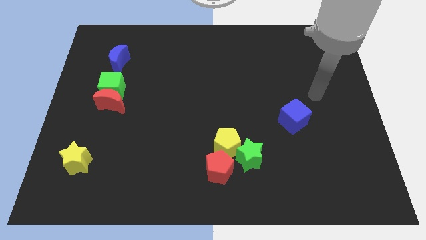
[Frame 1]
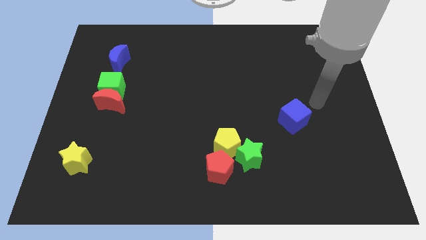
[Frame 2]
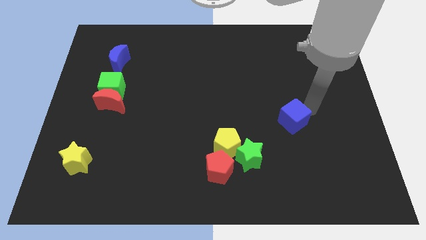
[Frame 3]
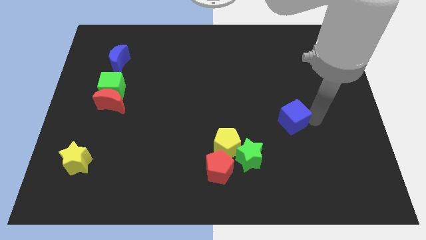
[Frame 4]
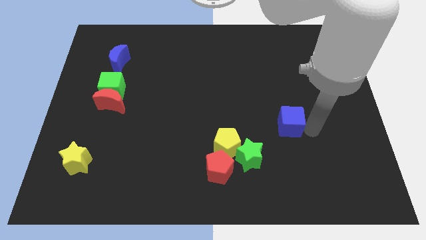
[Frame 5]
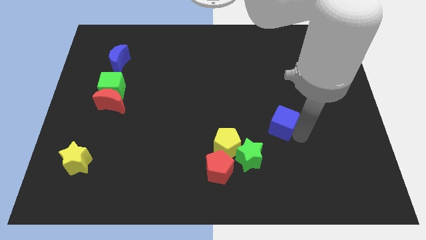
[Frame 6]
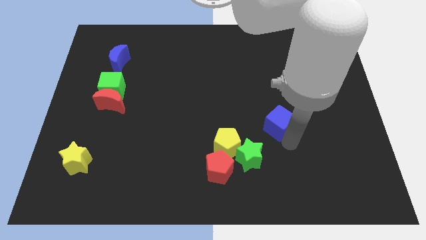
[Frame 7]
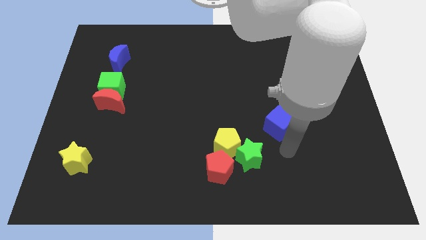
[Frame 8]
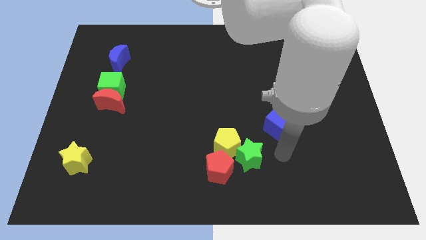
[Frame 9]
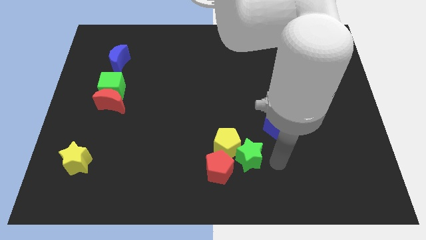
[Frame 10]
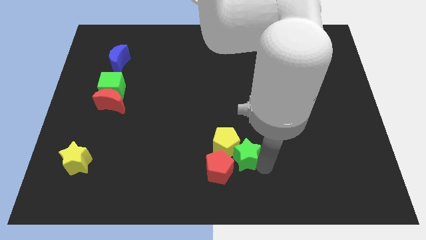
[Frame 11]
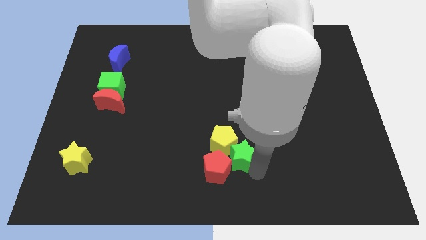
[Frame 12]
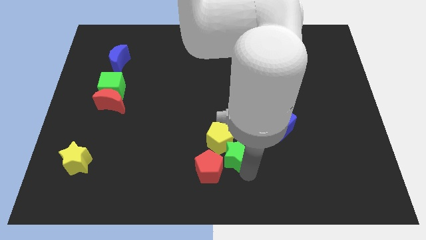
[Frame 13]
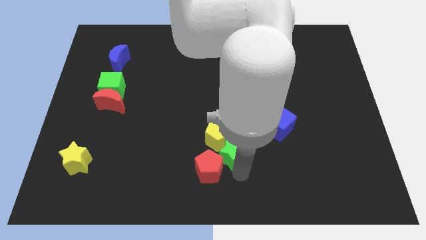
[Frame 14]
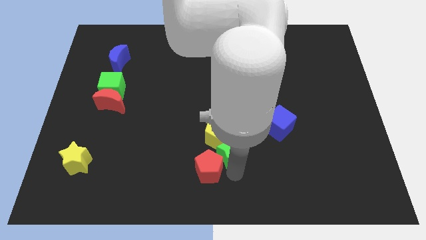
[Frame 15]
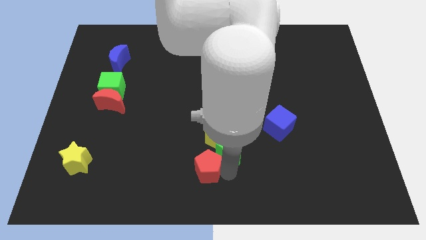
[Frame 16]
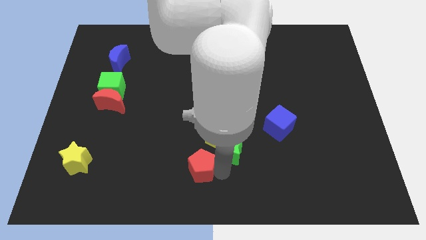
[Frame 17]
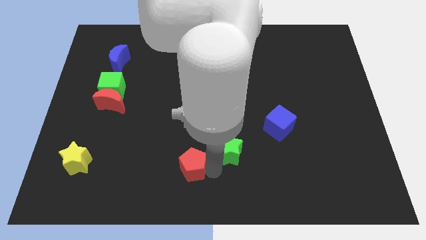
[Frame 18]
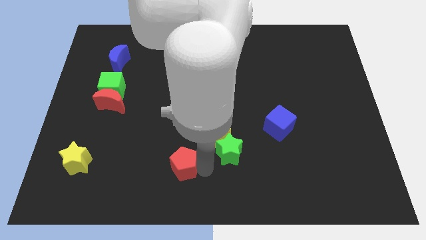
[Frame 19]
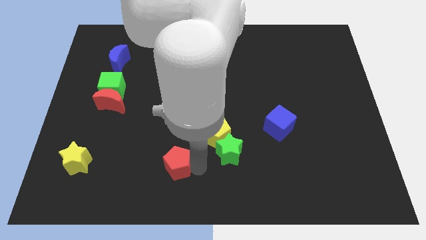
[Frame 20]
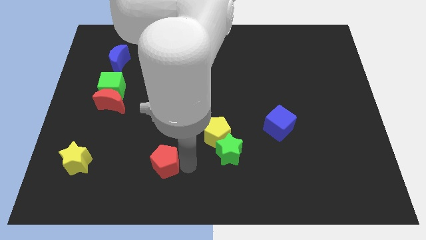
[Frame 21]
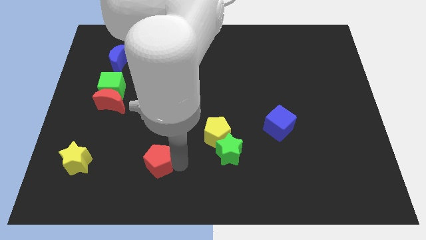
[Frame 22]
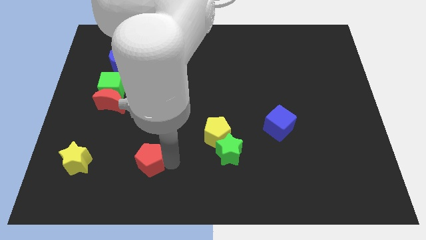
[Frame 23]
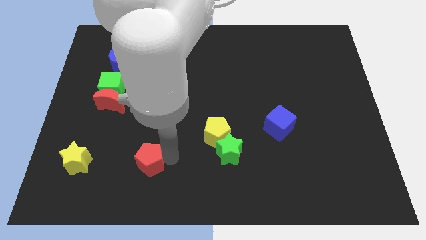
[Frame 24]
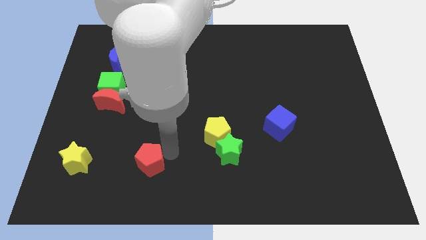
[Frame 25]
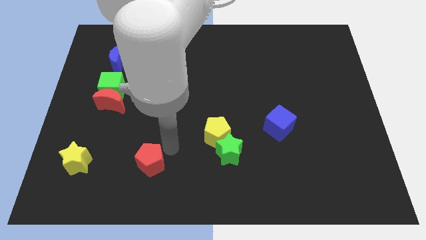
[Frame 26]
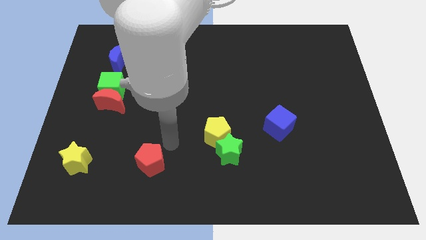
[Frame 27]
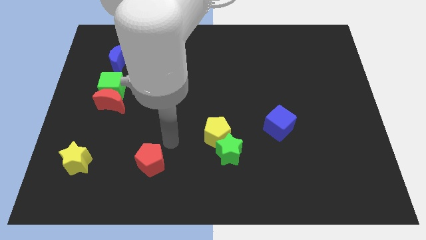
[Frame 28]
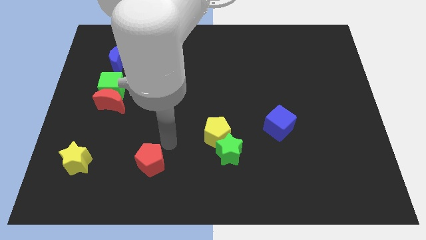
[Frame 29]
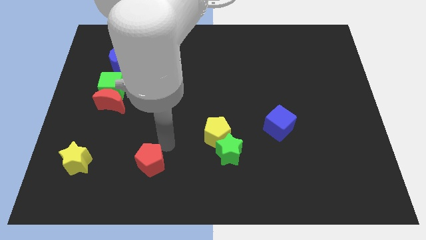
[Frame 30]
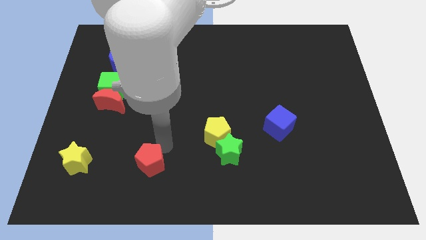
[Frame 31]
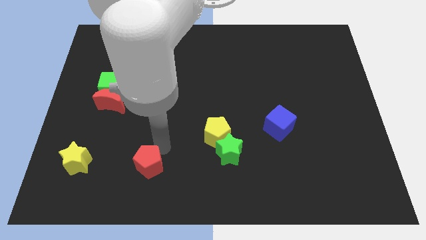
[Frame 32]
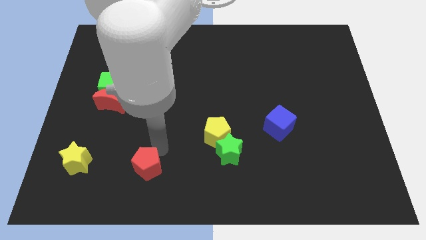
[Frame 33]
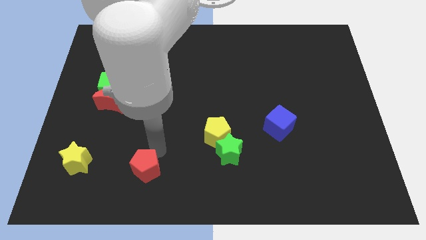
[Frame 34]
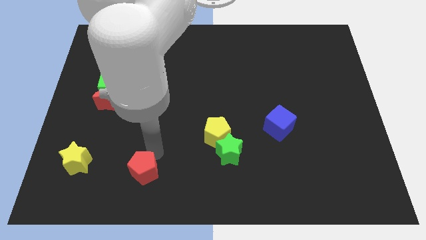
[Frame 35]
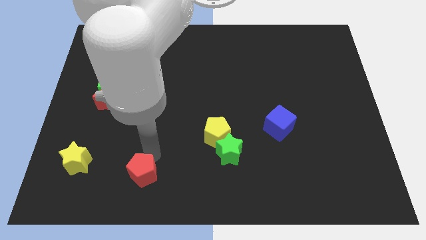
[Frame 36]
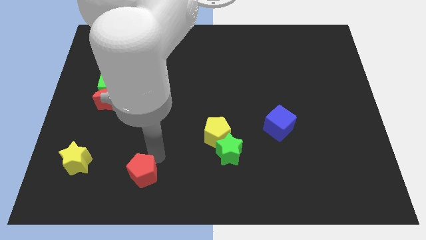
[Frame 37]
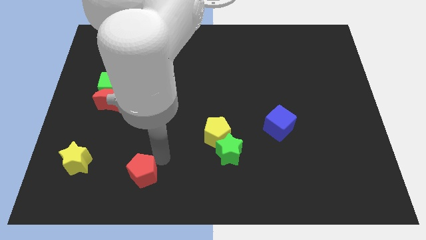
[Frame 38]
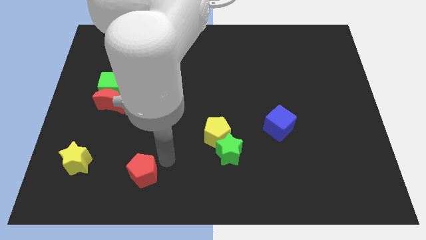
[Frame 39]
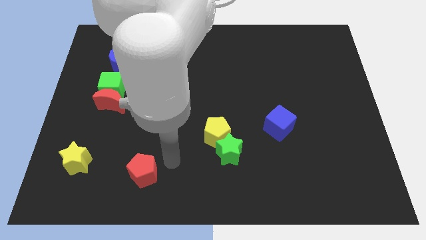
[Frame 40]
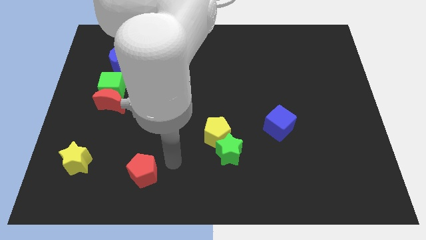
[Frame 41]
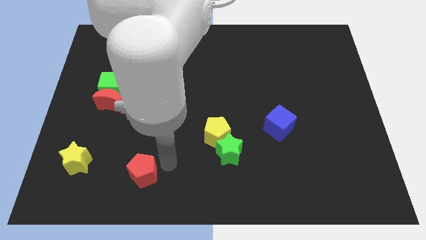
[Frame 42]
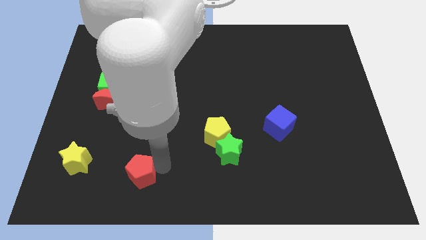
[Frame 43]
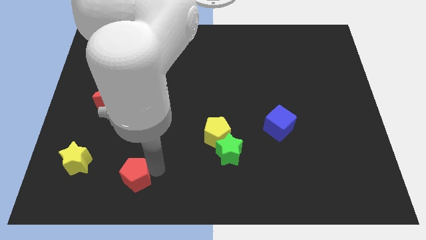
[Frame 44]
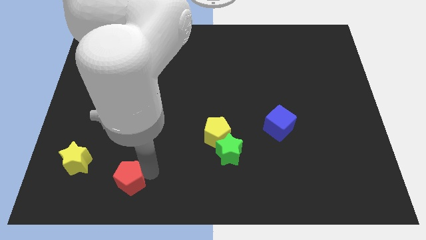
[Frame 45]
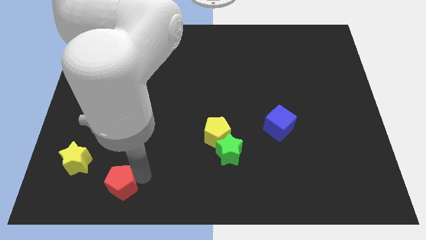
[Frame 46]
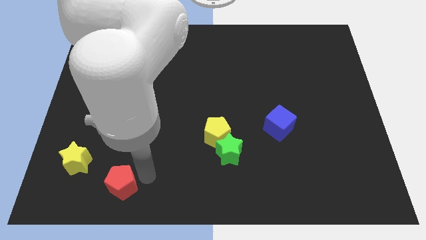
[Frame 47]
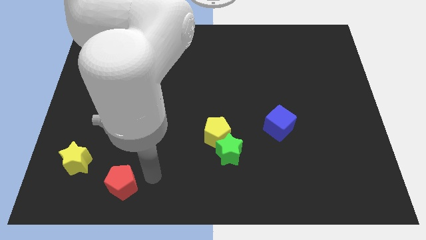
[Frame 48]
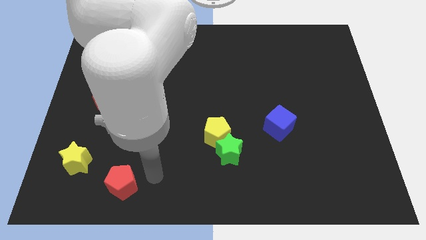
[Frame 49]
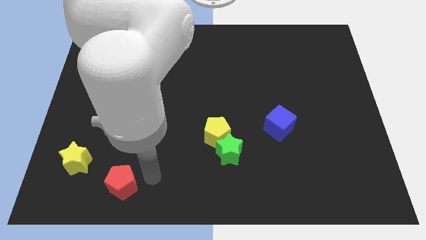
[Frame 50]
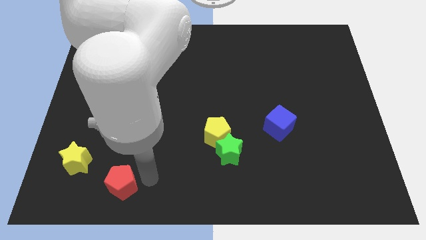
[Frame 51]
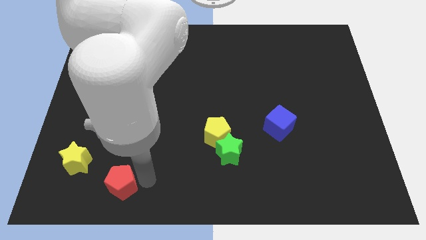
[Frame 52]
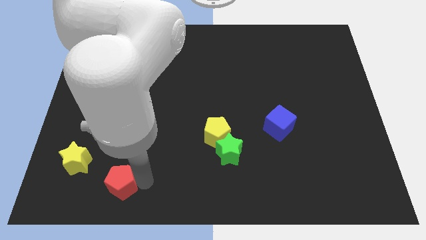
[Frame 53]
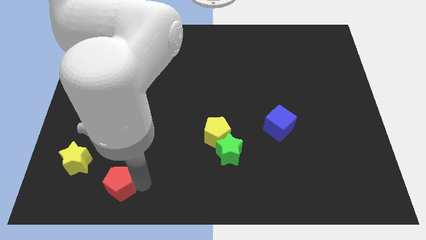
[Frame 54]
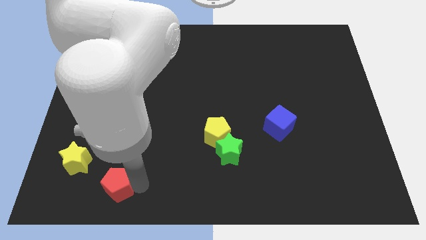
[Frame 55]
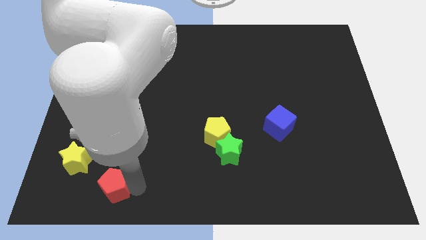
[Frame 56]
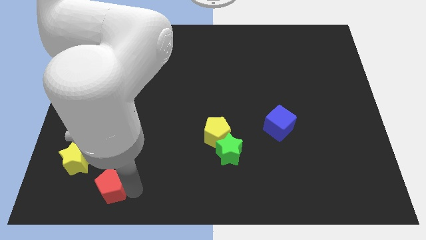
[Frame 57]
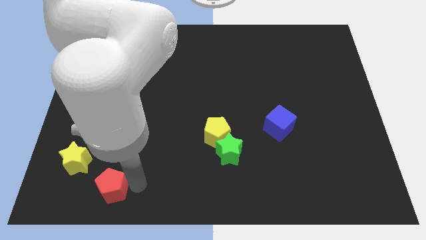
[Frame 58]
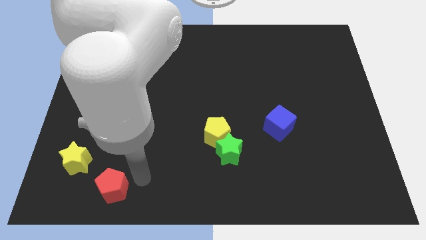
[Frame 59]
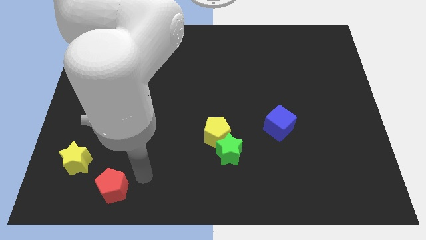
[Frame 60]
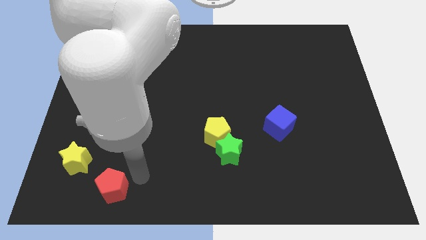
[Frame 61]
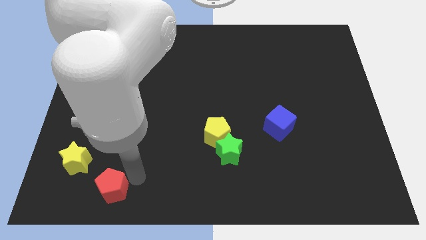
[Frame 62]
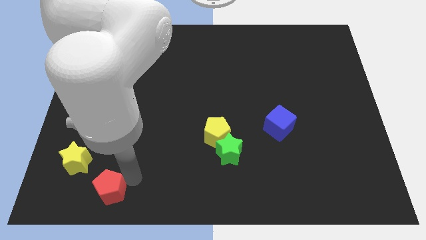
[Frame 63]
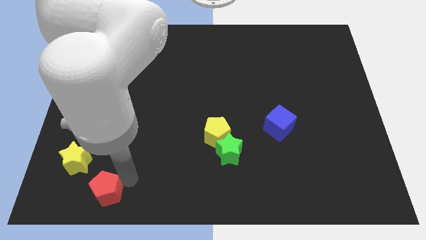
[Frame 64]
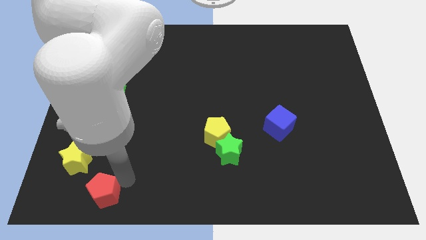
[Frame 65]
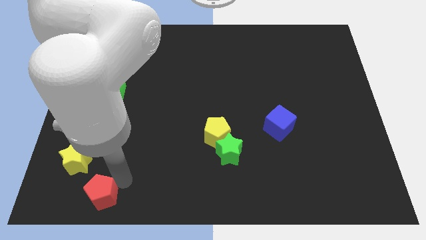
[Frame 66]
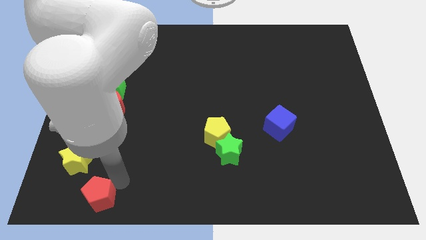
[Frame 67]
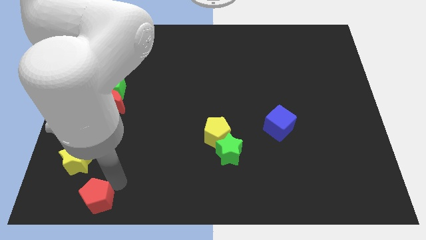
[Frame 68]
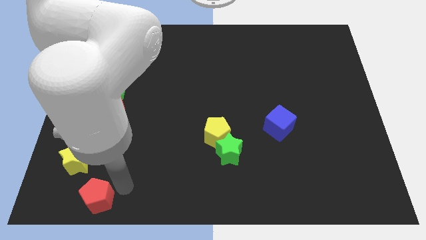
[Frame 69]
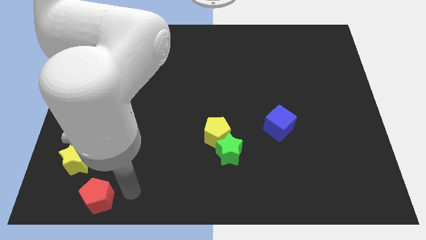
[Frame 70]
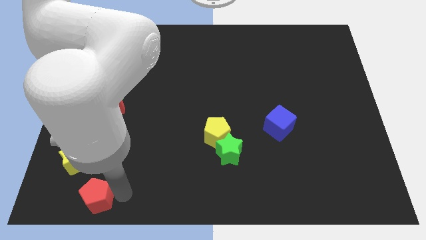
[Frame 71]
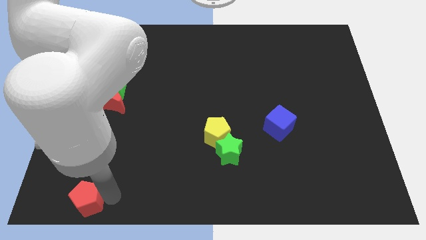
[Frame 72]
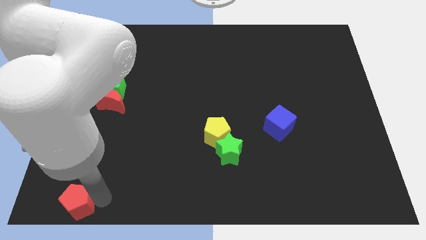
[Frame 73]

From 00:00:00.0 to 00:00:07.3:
slide the red pentagon to the bottom left corner
